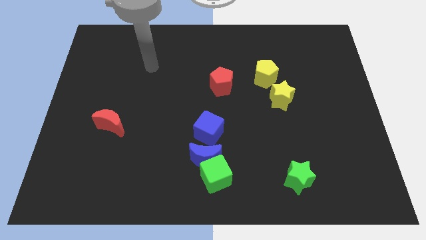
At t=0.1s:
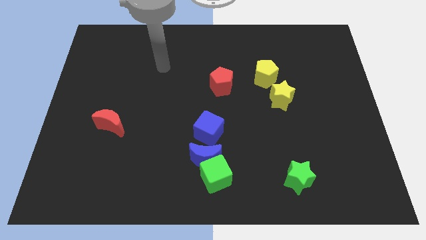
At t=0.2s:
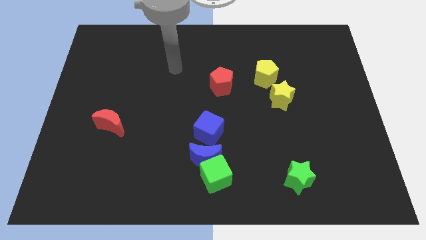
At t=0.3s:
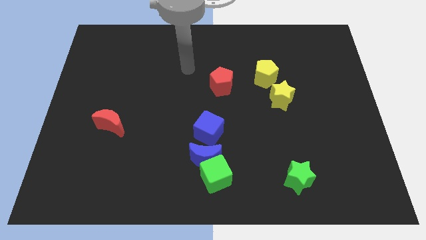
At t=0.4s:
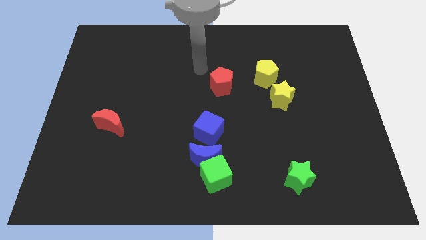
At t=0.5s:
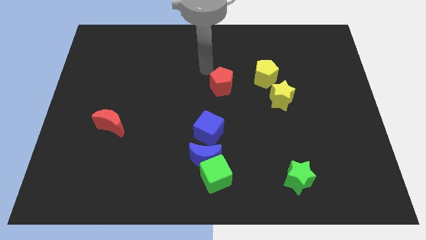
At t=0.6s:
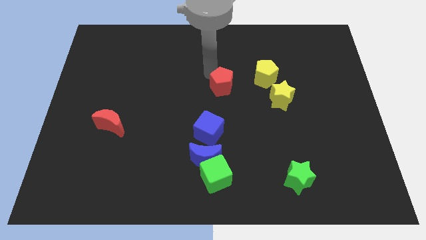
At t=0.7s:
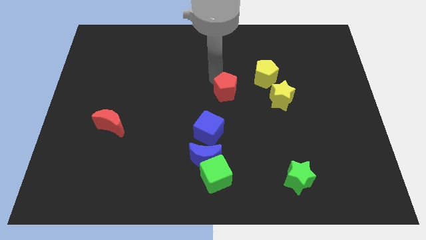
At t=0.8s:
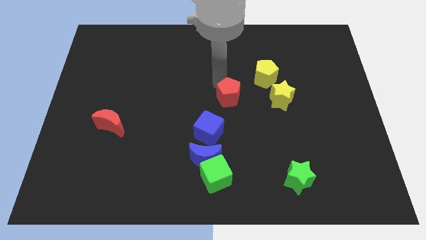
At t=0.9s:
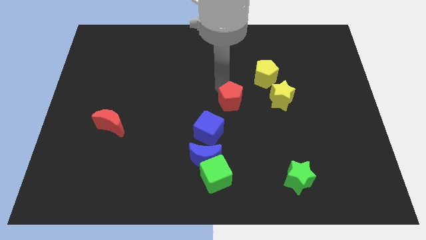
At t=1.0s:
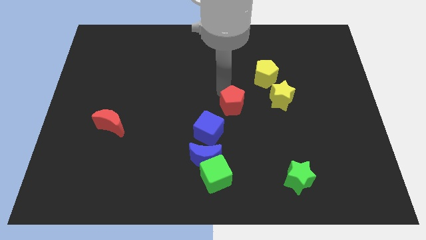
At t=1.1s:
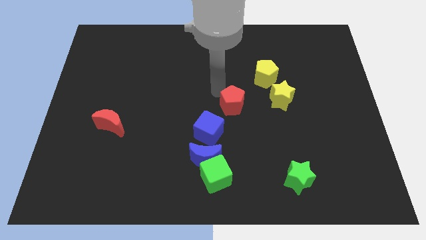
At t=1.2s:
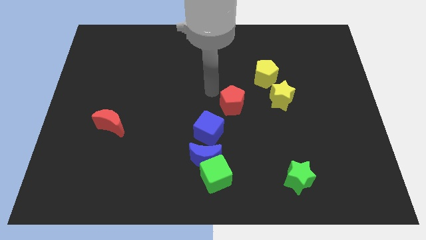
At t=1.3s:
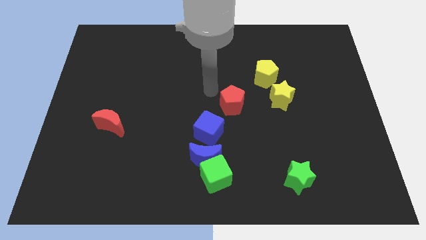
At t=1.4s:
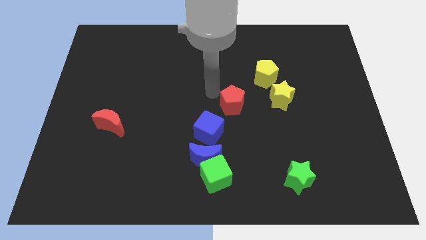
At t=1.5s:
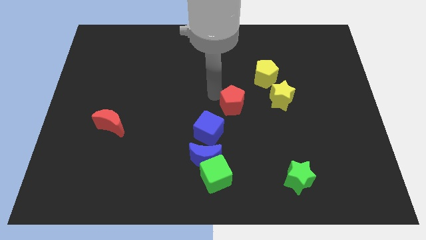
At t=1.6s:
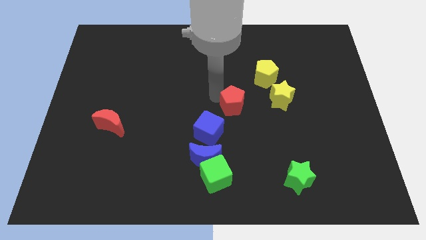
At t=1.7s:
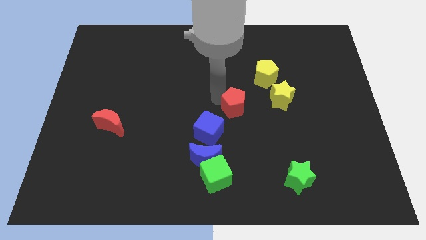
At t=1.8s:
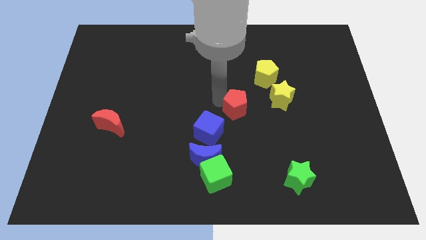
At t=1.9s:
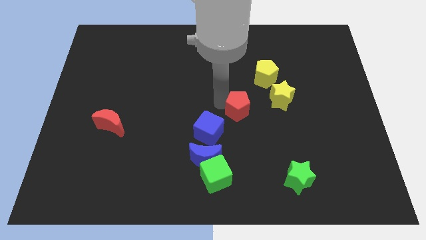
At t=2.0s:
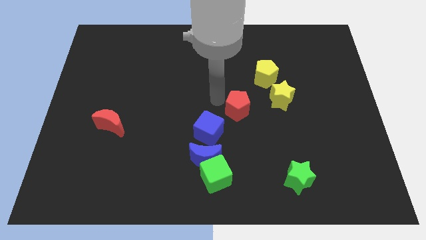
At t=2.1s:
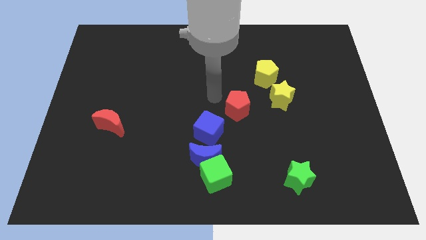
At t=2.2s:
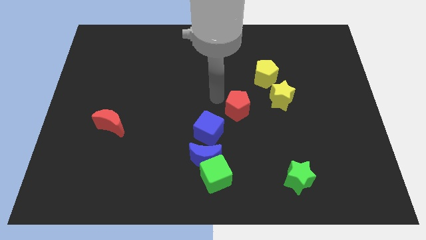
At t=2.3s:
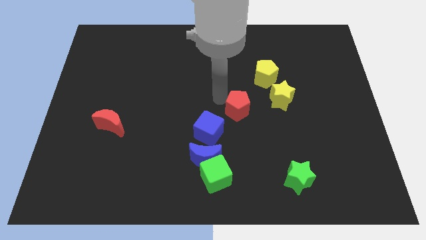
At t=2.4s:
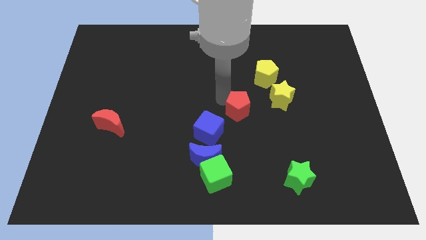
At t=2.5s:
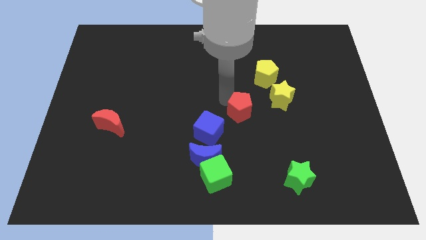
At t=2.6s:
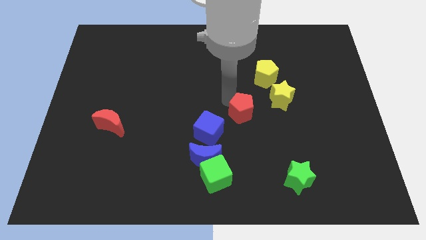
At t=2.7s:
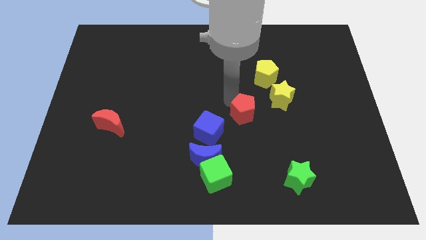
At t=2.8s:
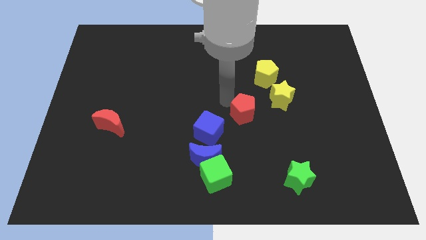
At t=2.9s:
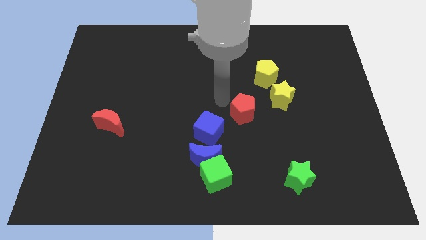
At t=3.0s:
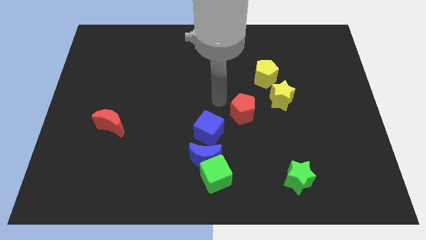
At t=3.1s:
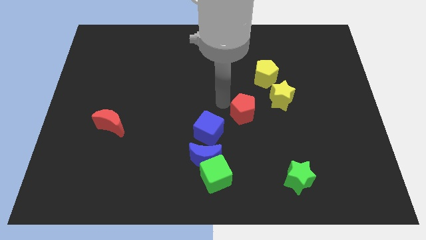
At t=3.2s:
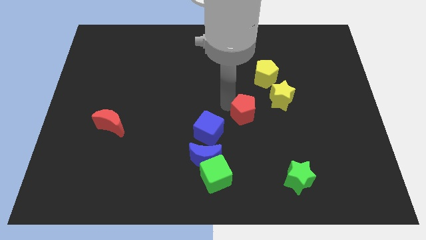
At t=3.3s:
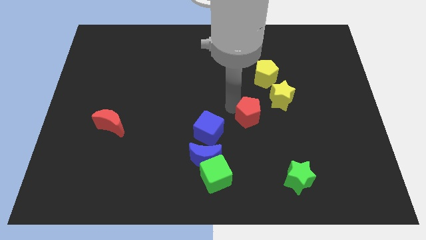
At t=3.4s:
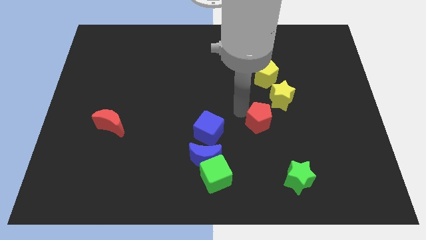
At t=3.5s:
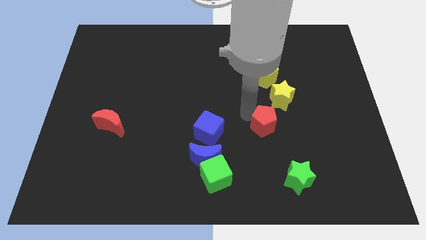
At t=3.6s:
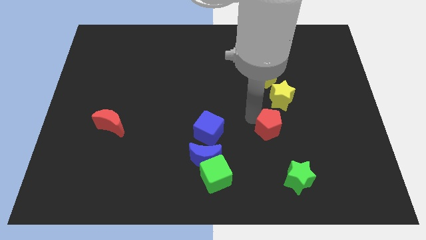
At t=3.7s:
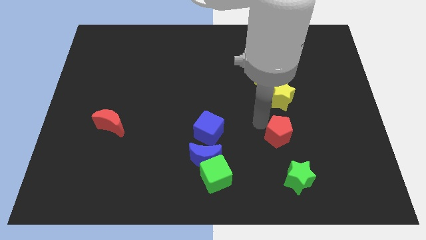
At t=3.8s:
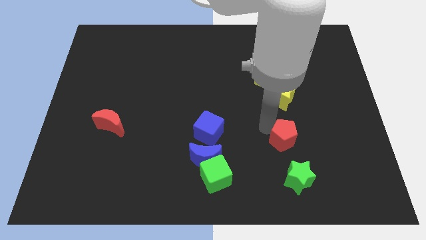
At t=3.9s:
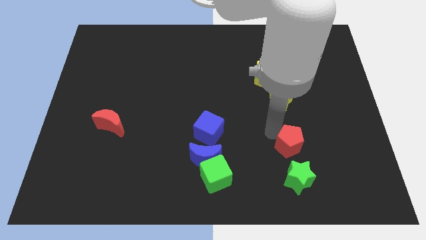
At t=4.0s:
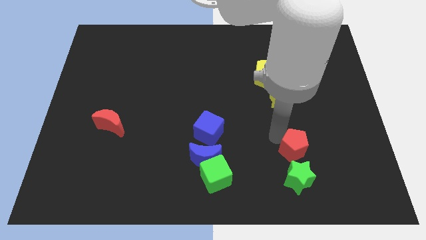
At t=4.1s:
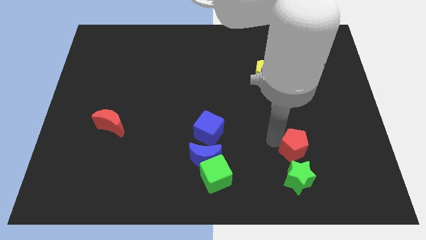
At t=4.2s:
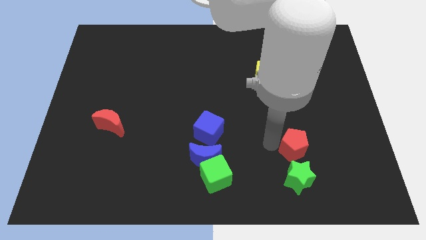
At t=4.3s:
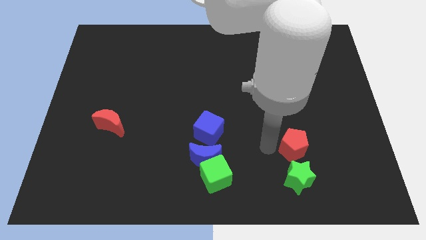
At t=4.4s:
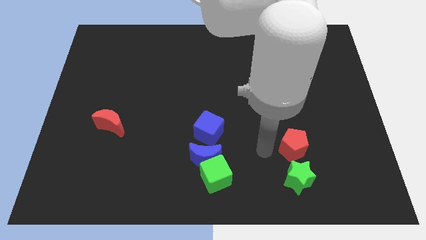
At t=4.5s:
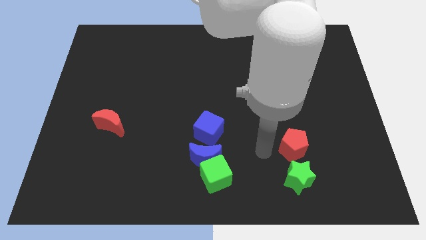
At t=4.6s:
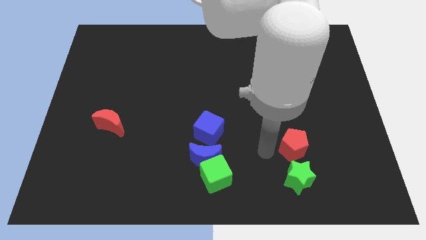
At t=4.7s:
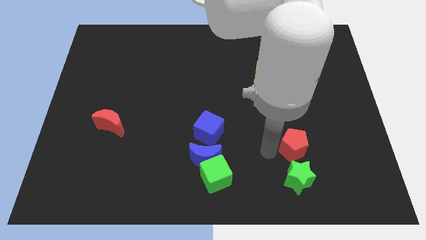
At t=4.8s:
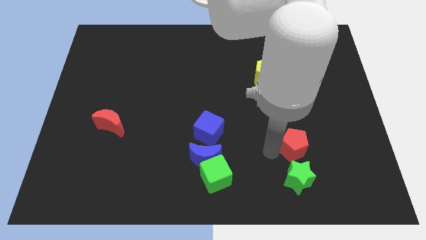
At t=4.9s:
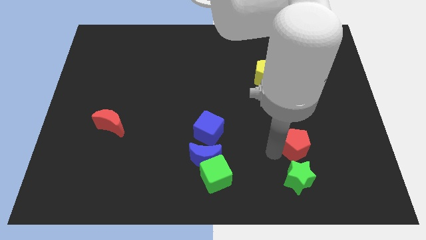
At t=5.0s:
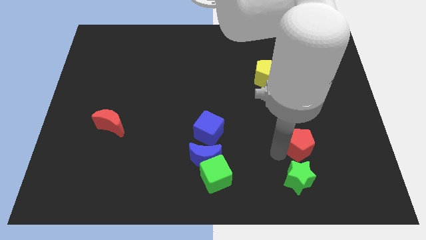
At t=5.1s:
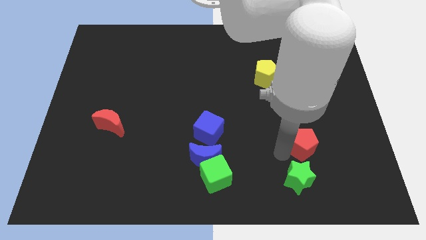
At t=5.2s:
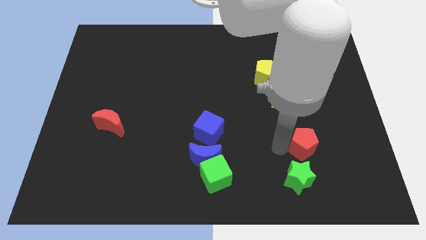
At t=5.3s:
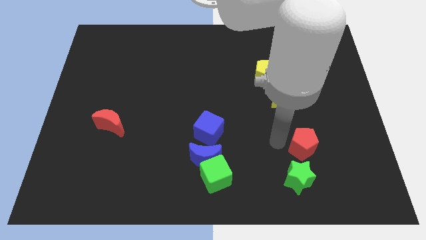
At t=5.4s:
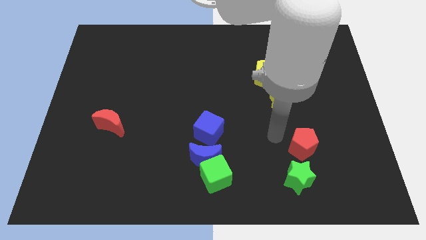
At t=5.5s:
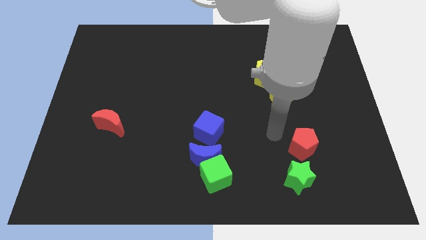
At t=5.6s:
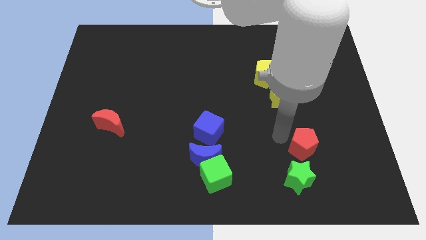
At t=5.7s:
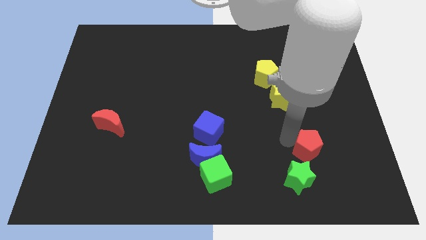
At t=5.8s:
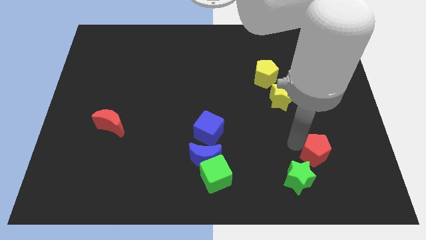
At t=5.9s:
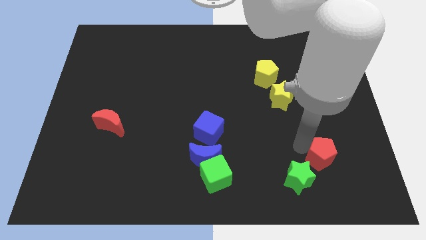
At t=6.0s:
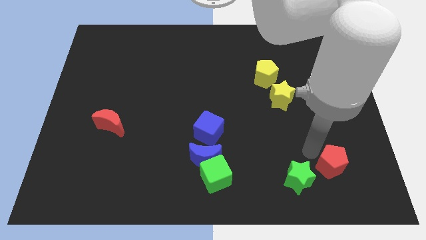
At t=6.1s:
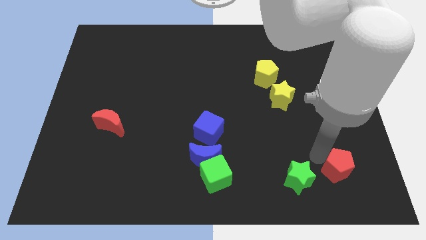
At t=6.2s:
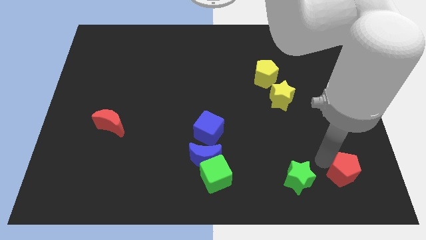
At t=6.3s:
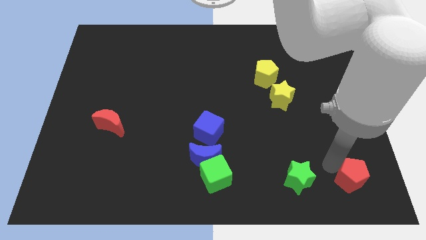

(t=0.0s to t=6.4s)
put the red pentagon to the bottom right
